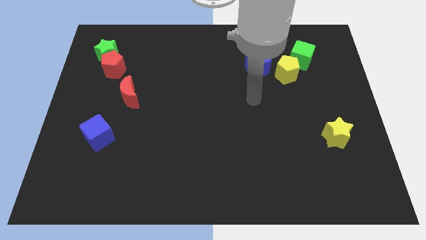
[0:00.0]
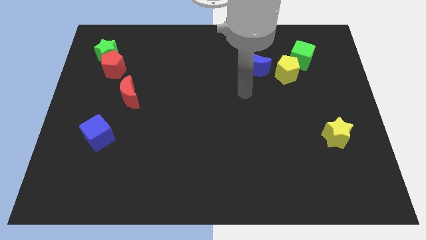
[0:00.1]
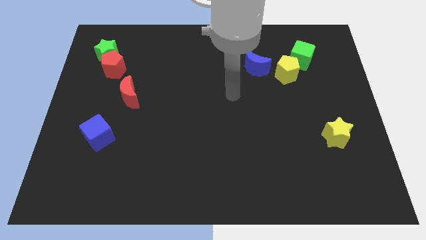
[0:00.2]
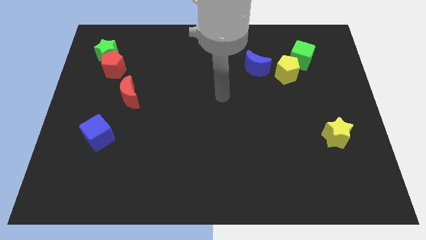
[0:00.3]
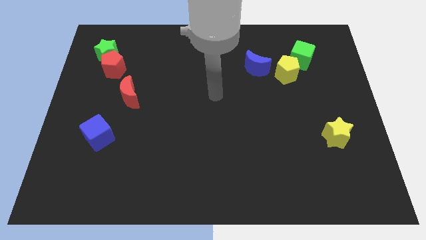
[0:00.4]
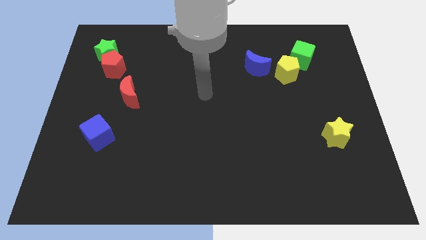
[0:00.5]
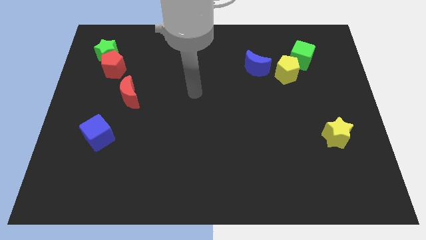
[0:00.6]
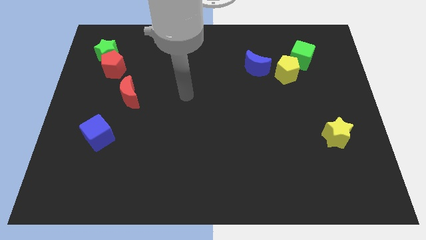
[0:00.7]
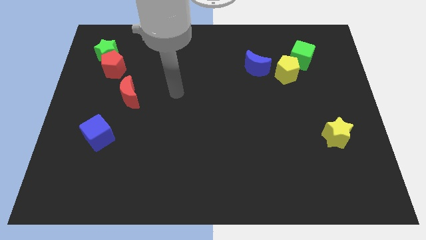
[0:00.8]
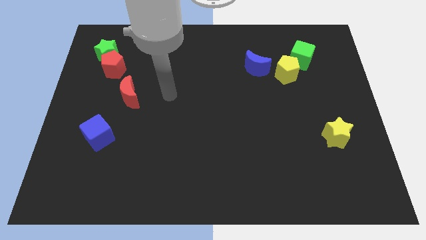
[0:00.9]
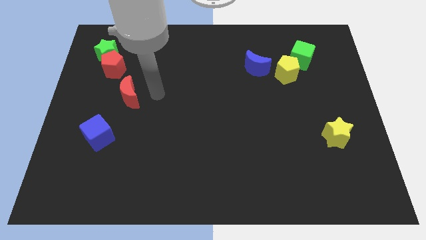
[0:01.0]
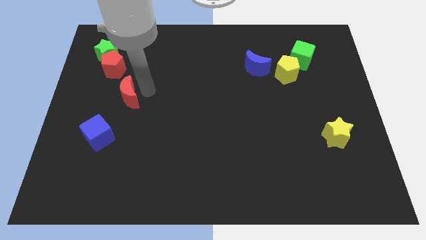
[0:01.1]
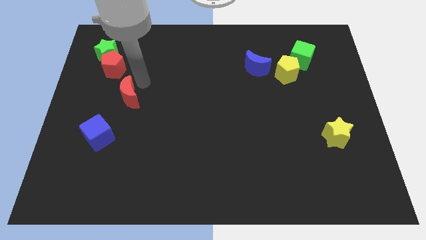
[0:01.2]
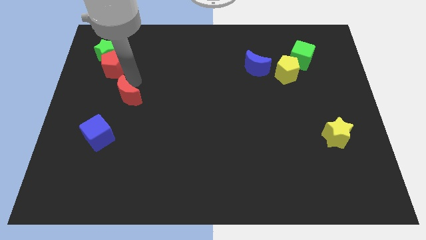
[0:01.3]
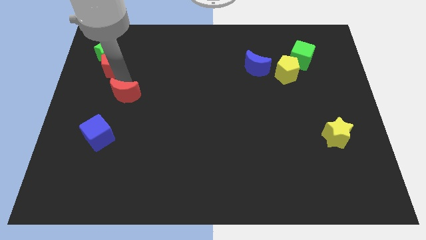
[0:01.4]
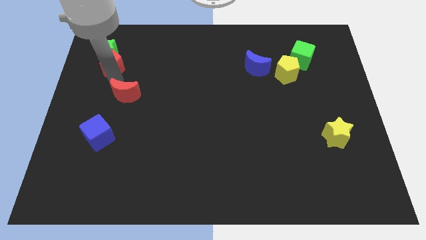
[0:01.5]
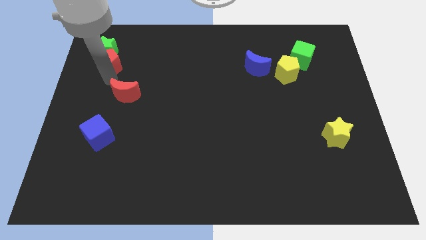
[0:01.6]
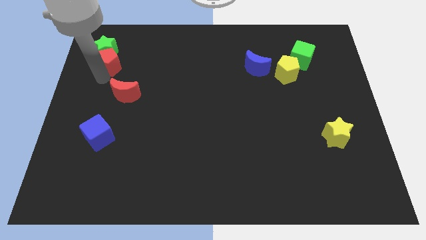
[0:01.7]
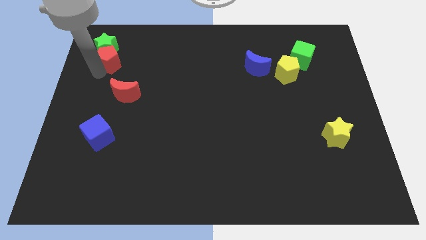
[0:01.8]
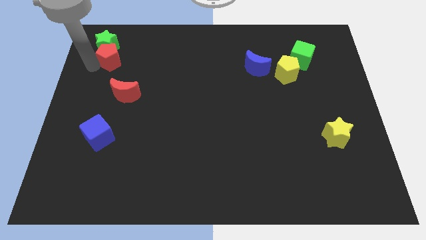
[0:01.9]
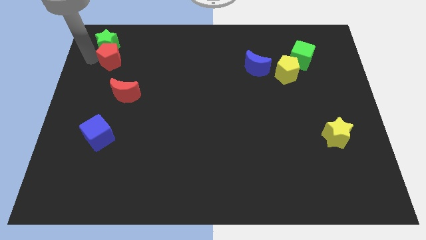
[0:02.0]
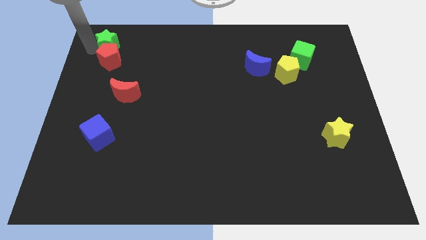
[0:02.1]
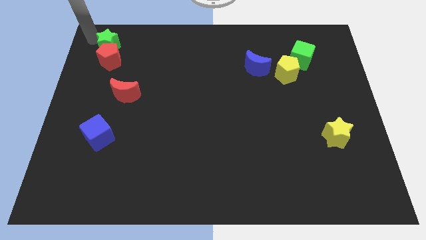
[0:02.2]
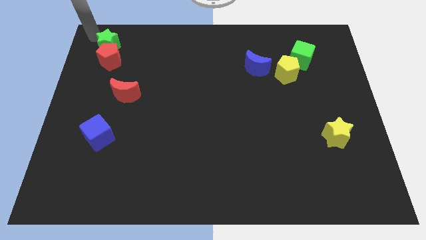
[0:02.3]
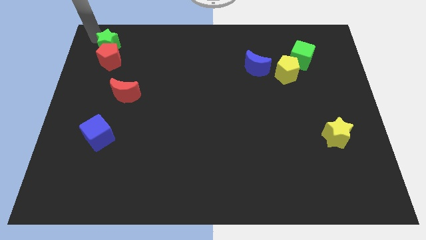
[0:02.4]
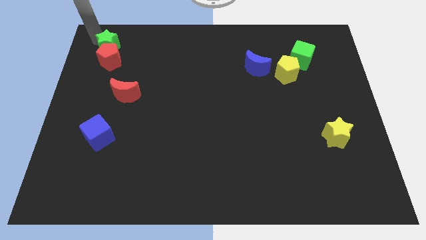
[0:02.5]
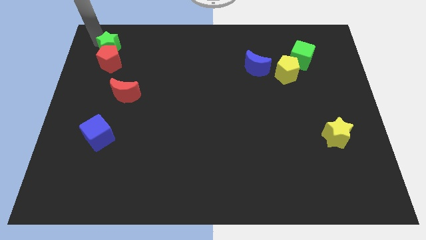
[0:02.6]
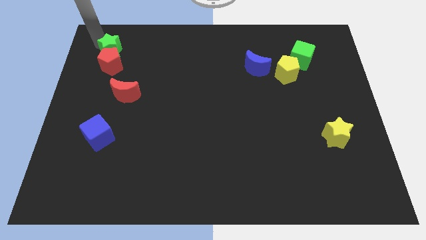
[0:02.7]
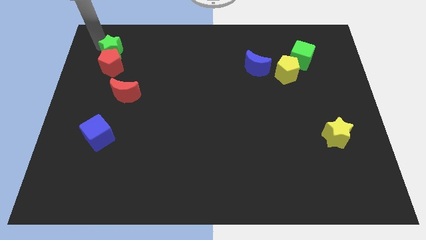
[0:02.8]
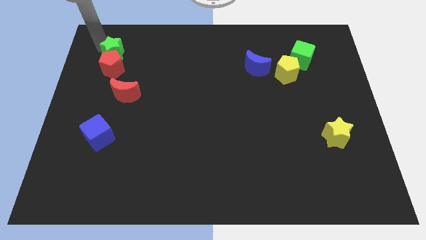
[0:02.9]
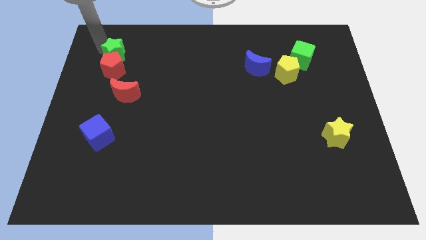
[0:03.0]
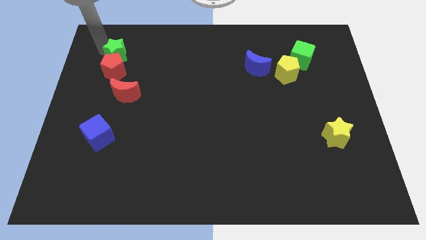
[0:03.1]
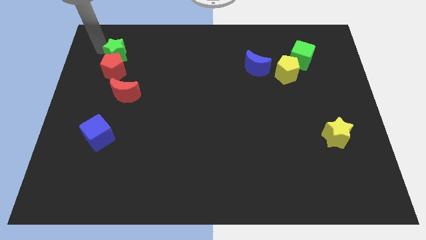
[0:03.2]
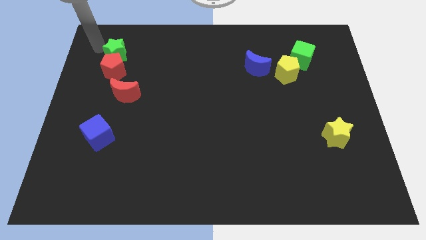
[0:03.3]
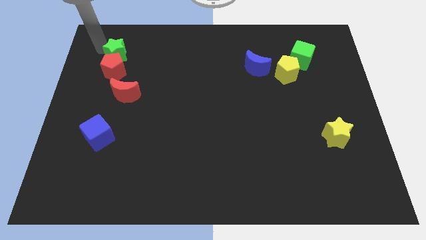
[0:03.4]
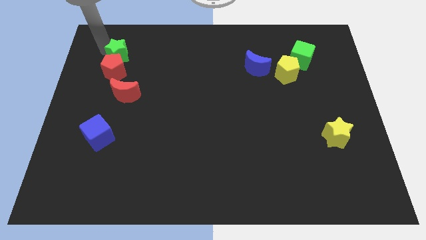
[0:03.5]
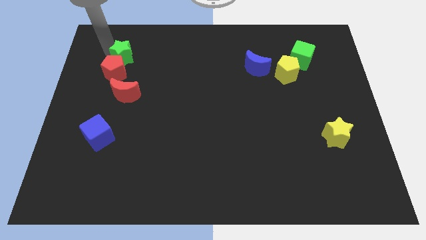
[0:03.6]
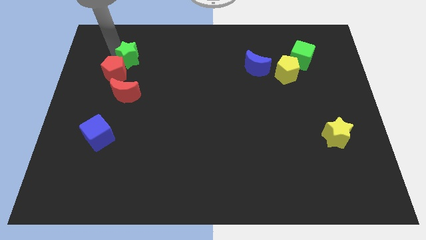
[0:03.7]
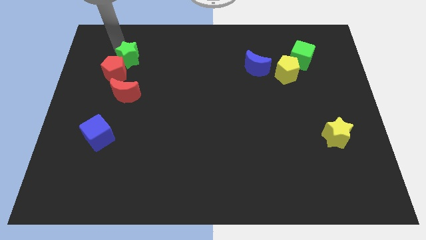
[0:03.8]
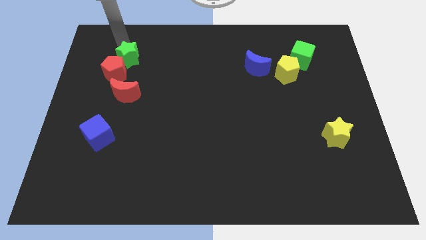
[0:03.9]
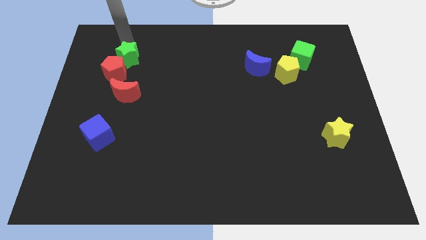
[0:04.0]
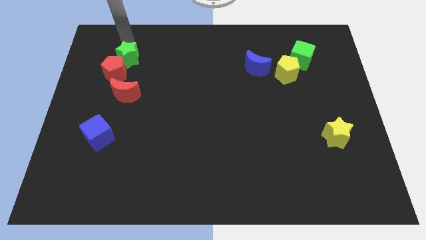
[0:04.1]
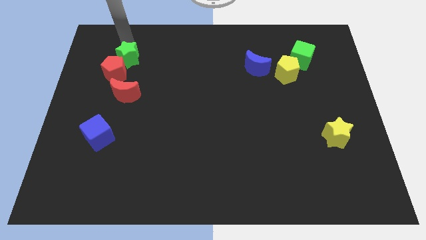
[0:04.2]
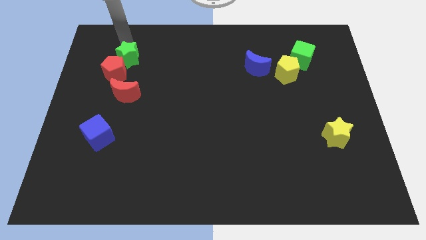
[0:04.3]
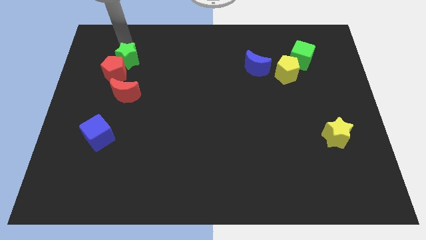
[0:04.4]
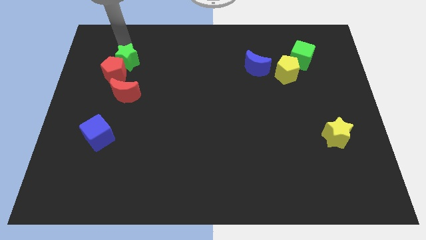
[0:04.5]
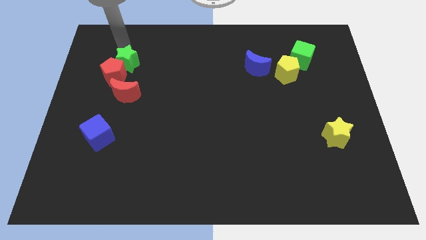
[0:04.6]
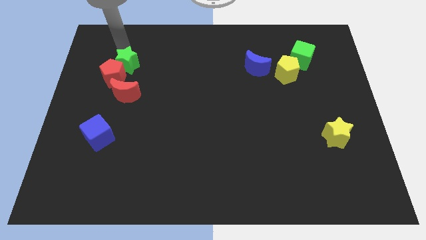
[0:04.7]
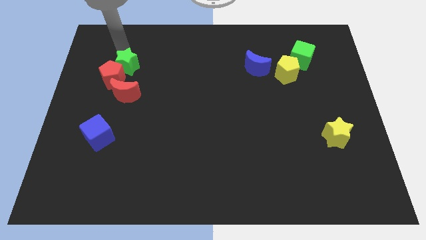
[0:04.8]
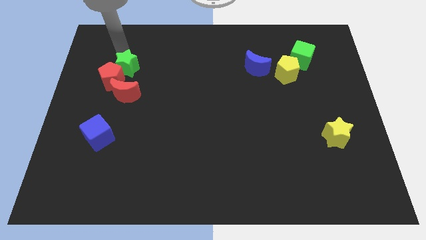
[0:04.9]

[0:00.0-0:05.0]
slide the green star slightly down and right

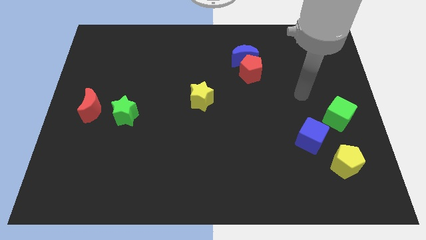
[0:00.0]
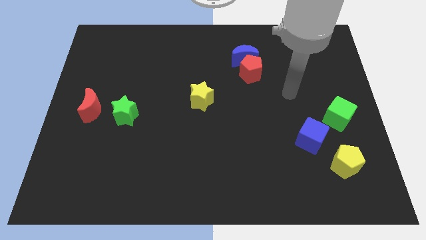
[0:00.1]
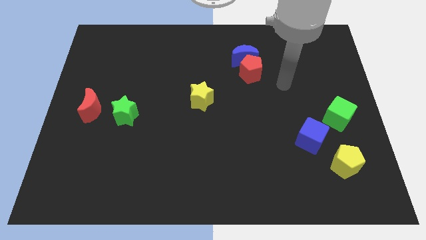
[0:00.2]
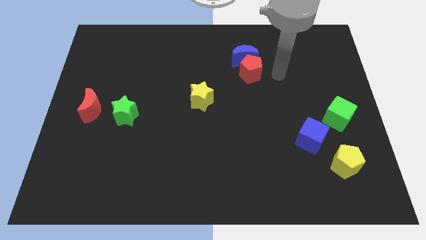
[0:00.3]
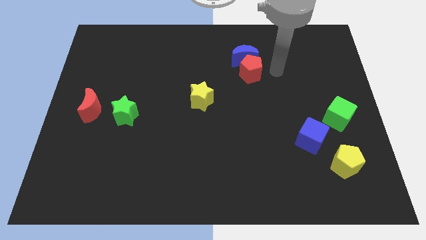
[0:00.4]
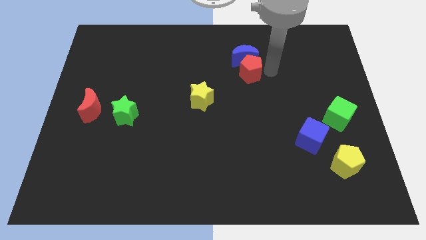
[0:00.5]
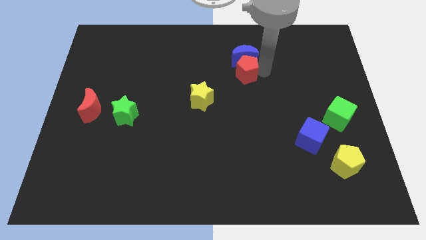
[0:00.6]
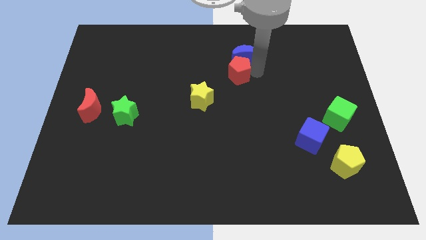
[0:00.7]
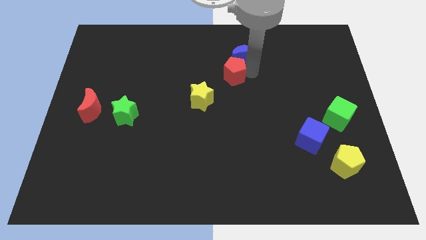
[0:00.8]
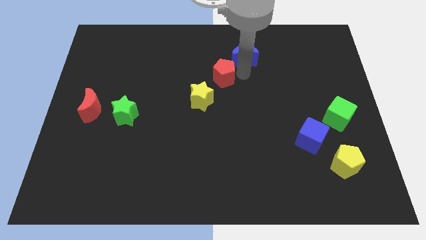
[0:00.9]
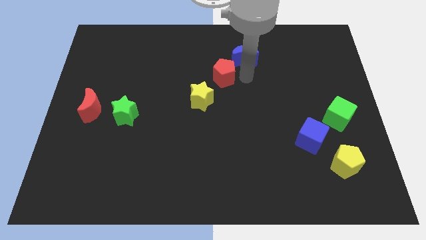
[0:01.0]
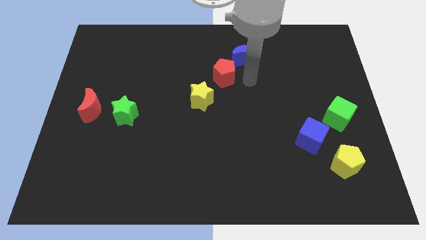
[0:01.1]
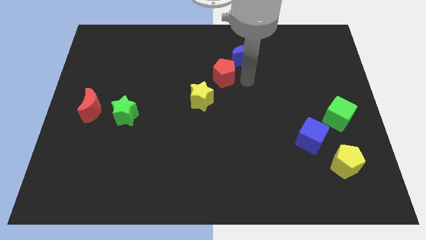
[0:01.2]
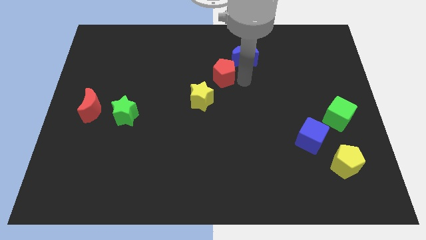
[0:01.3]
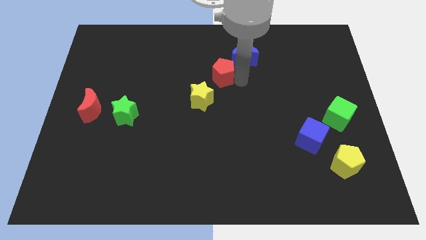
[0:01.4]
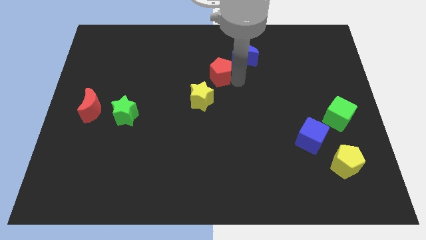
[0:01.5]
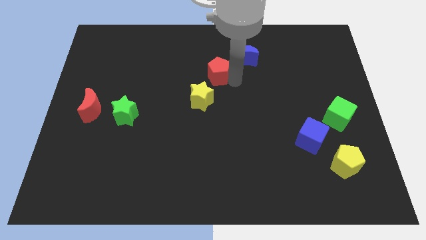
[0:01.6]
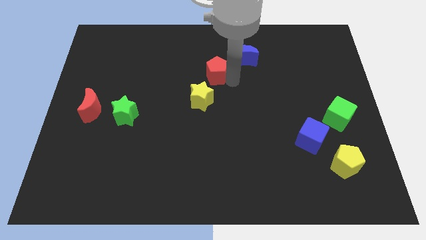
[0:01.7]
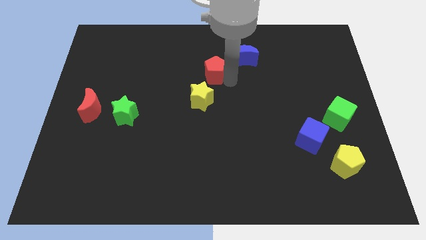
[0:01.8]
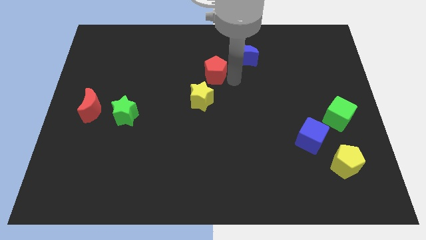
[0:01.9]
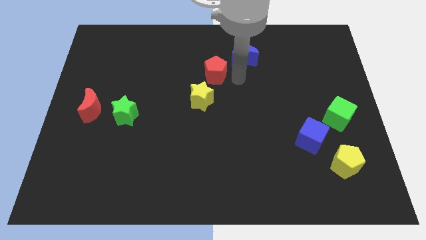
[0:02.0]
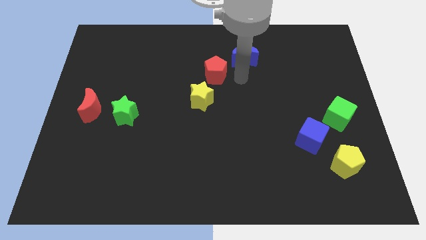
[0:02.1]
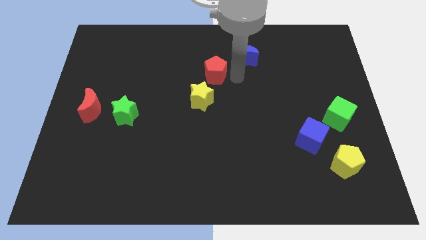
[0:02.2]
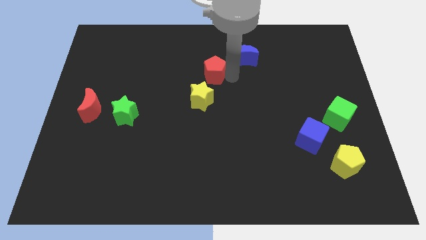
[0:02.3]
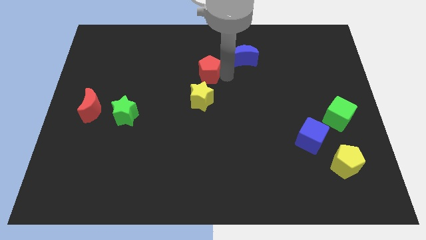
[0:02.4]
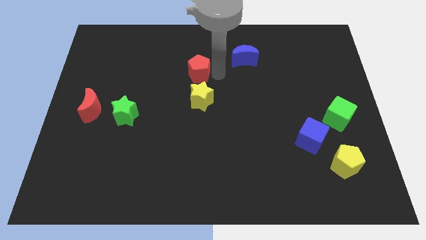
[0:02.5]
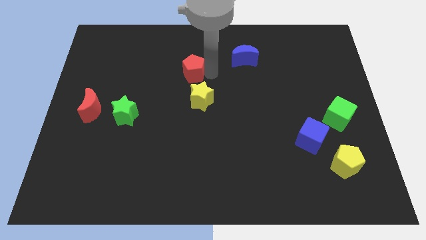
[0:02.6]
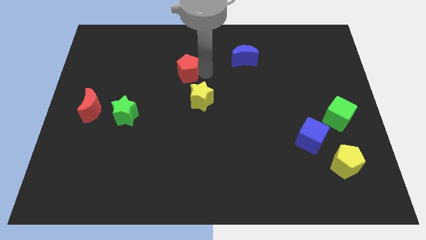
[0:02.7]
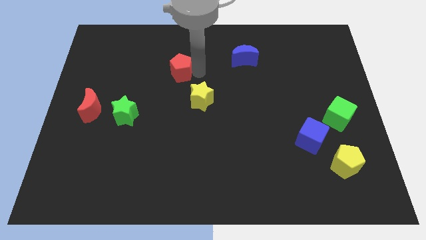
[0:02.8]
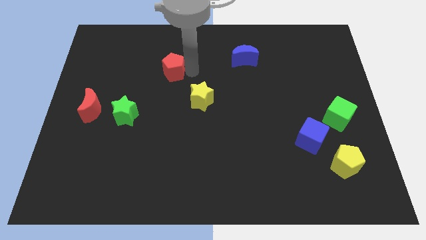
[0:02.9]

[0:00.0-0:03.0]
move the red pentagon to the left
